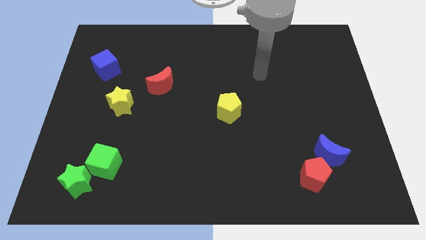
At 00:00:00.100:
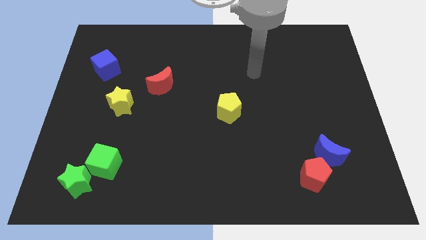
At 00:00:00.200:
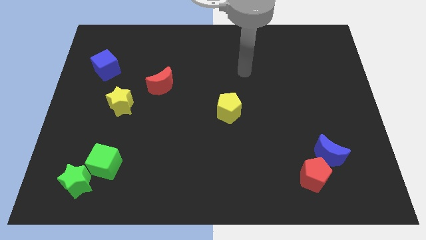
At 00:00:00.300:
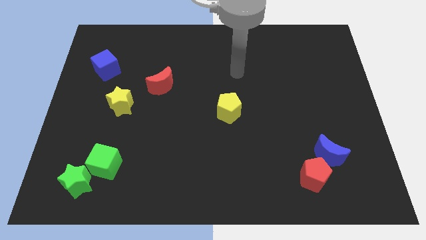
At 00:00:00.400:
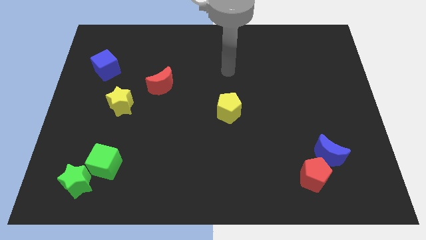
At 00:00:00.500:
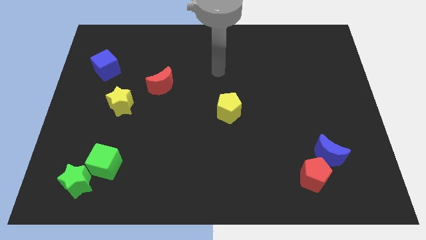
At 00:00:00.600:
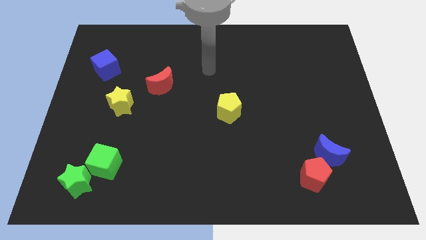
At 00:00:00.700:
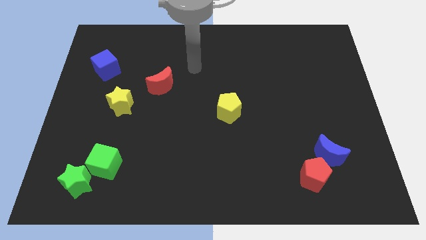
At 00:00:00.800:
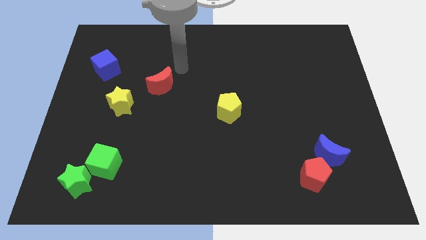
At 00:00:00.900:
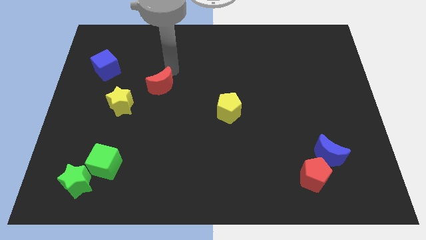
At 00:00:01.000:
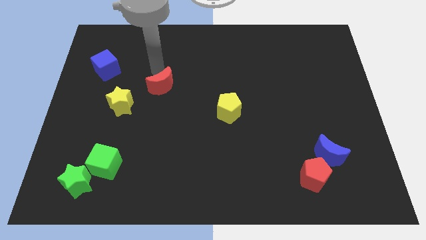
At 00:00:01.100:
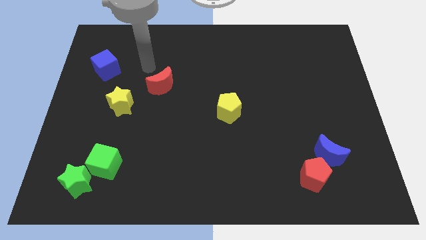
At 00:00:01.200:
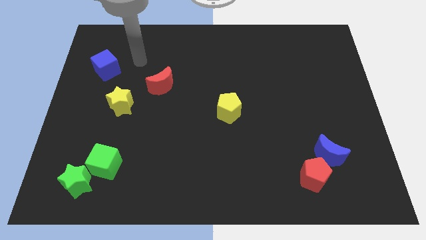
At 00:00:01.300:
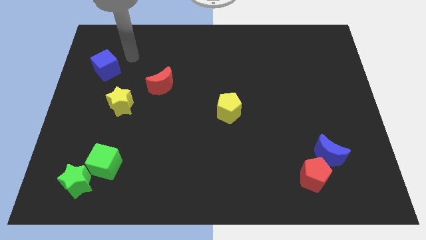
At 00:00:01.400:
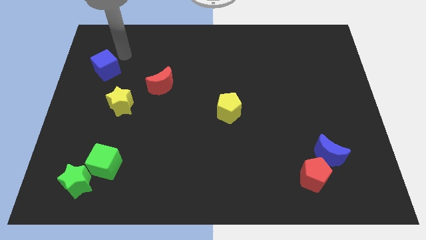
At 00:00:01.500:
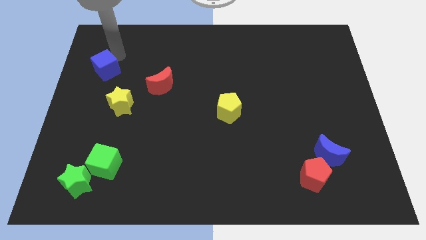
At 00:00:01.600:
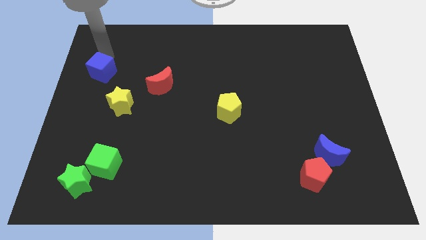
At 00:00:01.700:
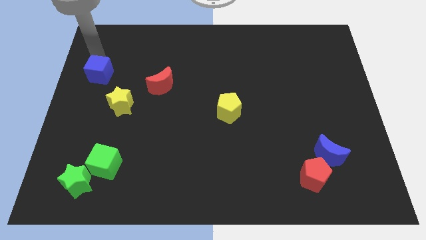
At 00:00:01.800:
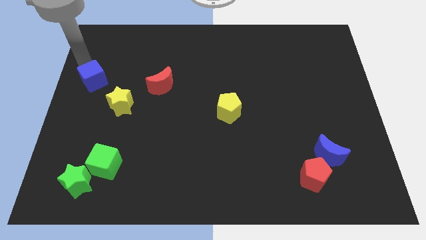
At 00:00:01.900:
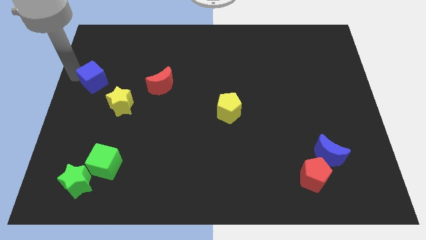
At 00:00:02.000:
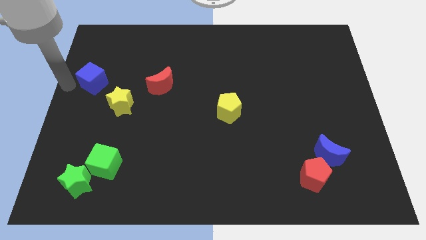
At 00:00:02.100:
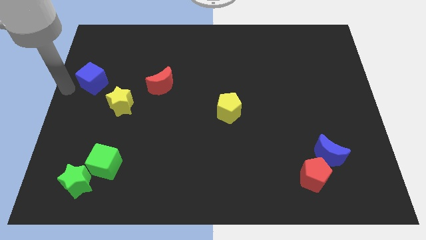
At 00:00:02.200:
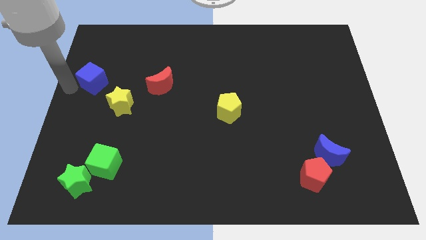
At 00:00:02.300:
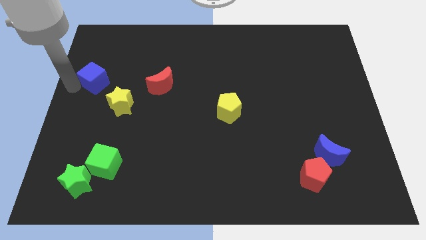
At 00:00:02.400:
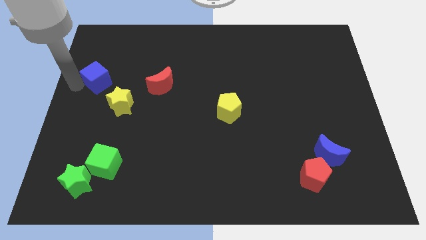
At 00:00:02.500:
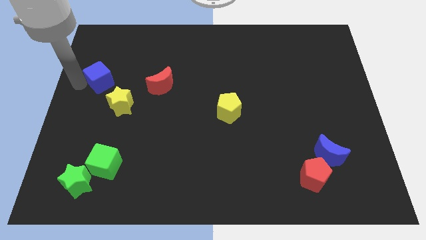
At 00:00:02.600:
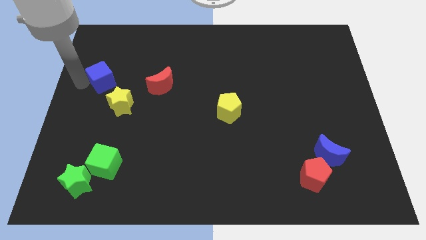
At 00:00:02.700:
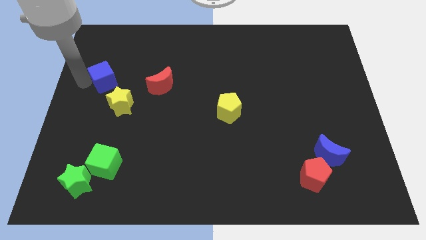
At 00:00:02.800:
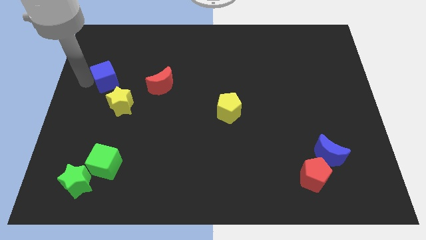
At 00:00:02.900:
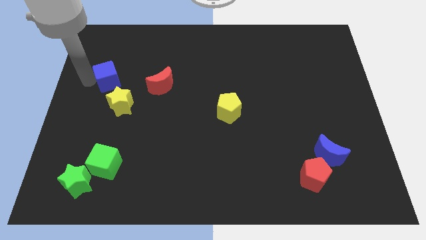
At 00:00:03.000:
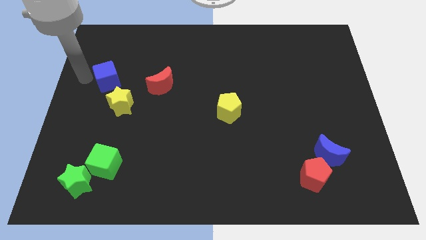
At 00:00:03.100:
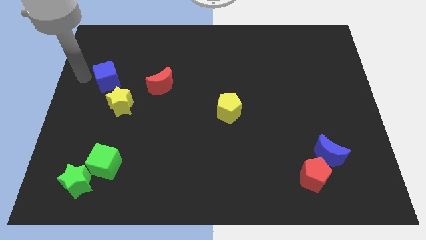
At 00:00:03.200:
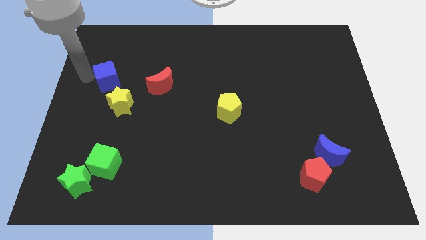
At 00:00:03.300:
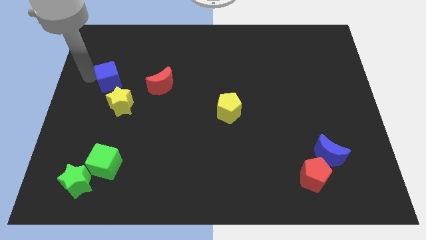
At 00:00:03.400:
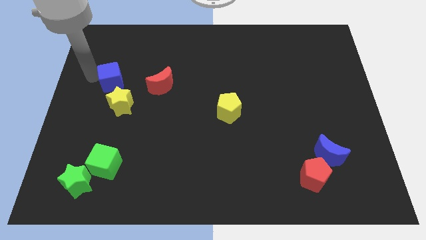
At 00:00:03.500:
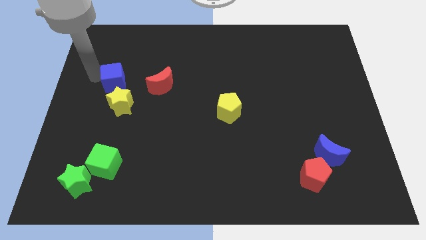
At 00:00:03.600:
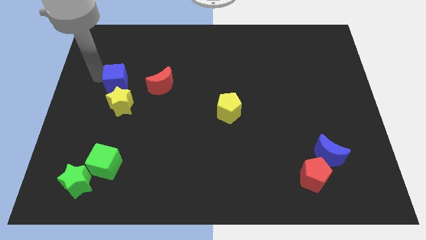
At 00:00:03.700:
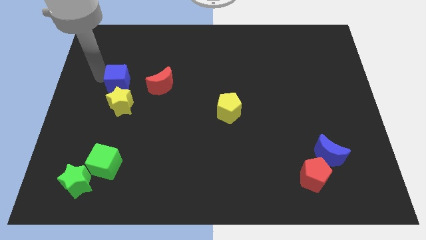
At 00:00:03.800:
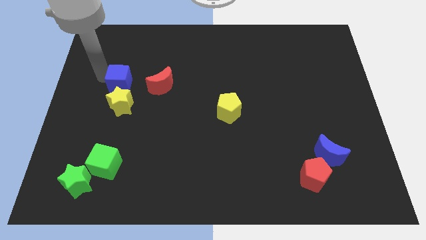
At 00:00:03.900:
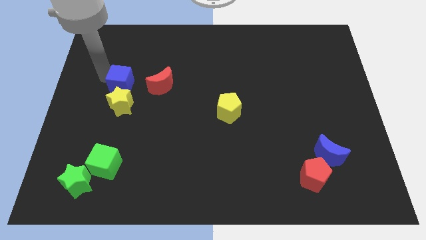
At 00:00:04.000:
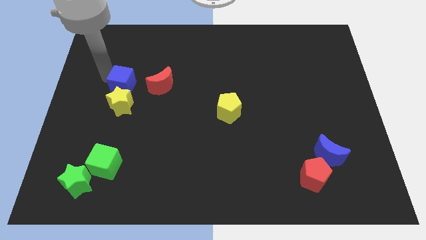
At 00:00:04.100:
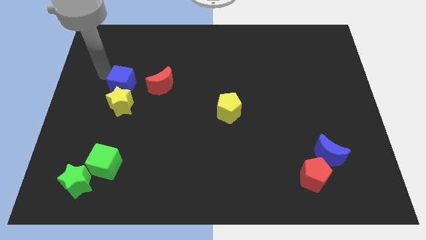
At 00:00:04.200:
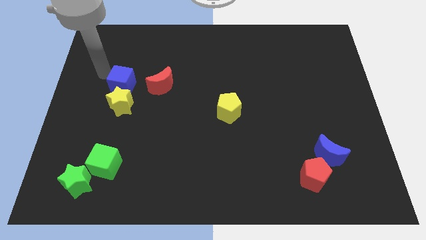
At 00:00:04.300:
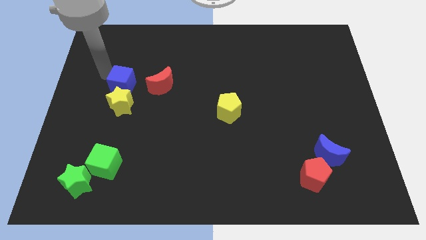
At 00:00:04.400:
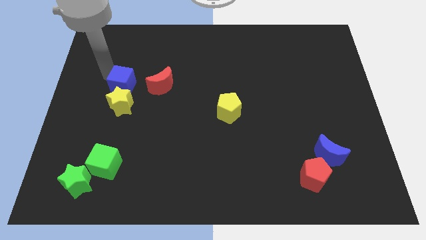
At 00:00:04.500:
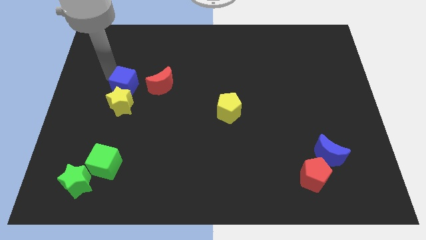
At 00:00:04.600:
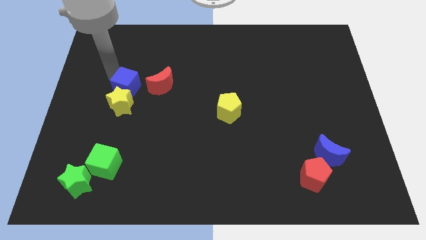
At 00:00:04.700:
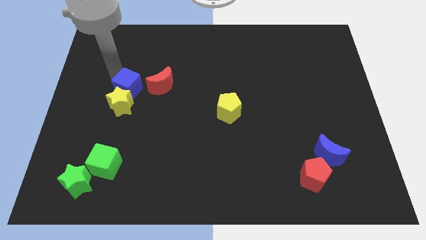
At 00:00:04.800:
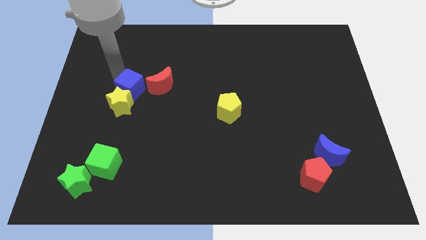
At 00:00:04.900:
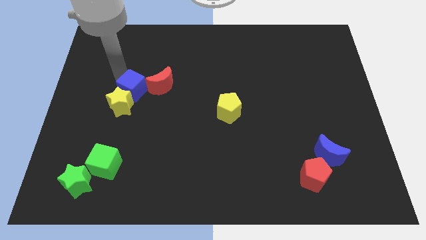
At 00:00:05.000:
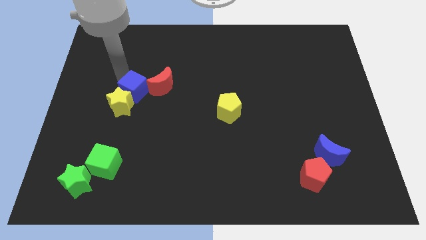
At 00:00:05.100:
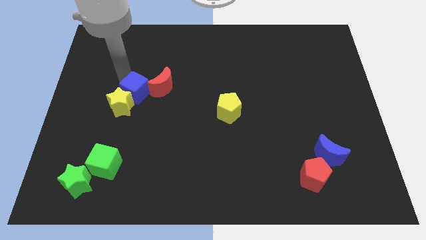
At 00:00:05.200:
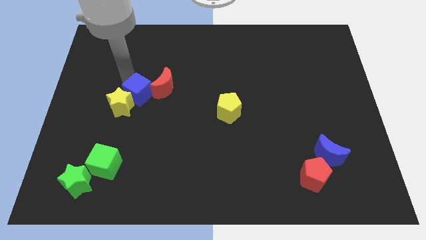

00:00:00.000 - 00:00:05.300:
put the blue cube just right of the yellow star

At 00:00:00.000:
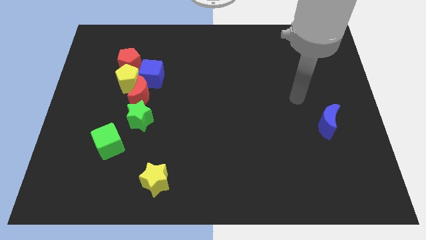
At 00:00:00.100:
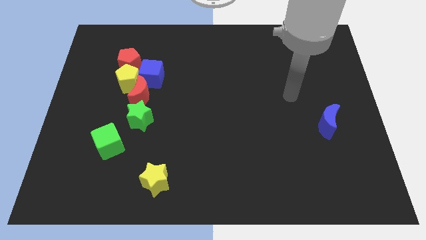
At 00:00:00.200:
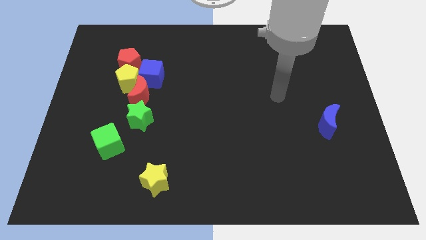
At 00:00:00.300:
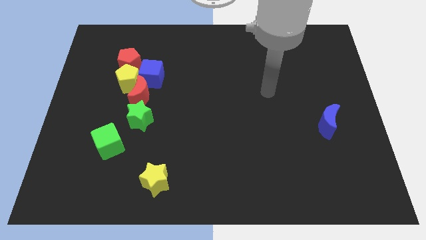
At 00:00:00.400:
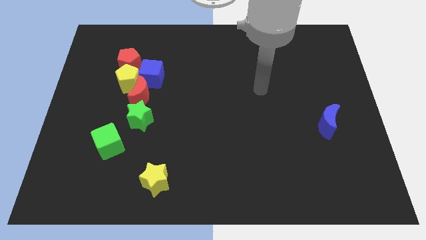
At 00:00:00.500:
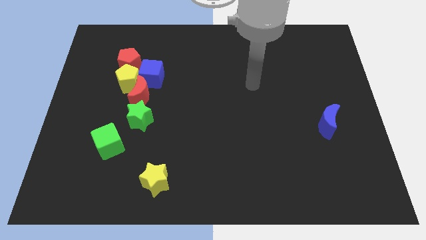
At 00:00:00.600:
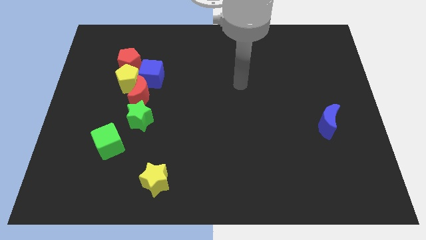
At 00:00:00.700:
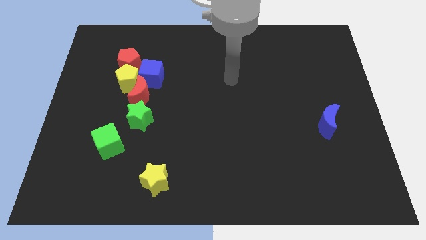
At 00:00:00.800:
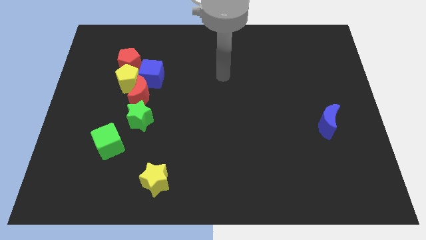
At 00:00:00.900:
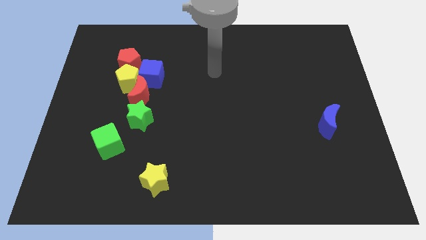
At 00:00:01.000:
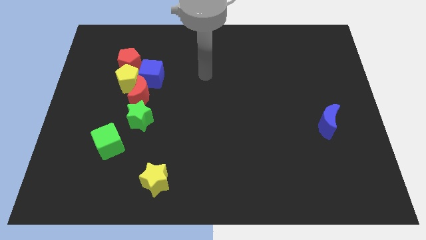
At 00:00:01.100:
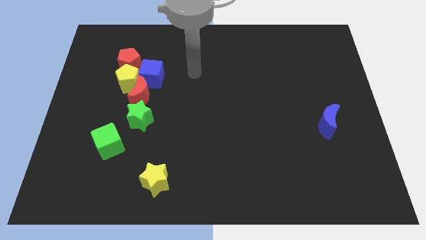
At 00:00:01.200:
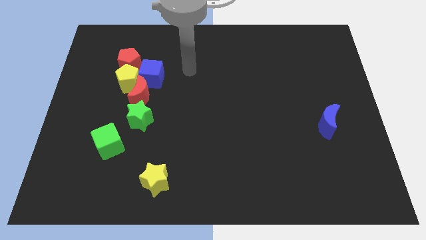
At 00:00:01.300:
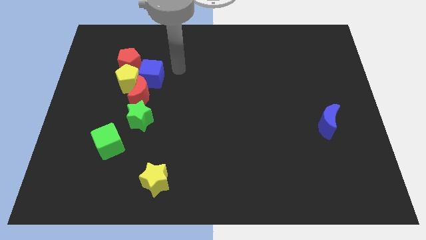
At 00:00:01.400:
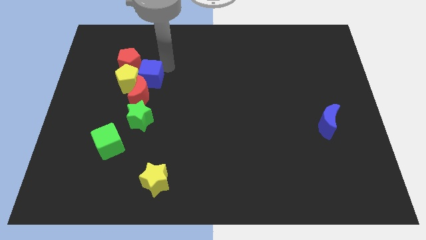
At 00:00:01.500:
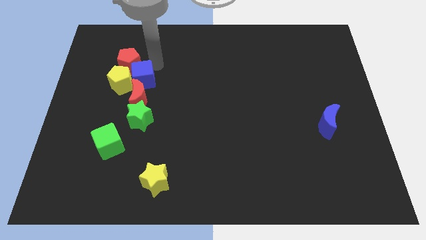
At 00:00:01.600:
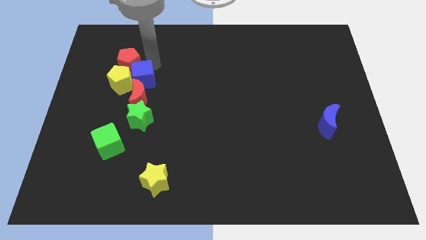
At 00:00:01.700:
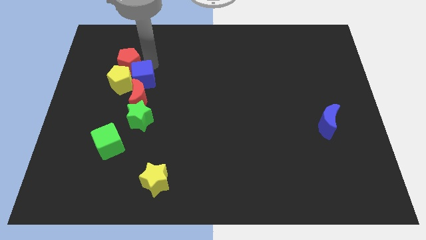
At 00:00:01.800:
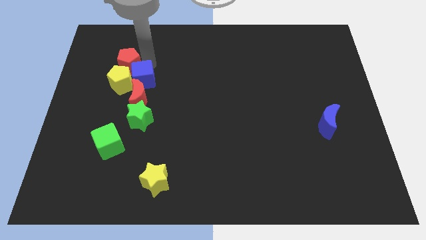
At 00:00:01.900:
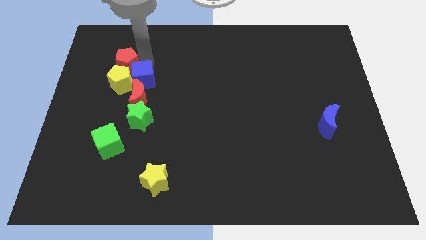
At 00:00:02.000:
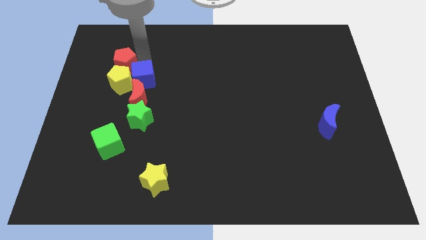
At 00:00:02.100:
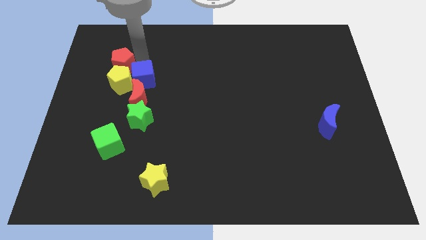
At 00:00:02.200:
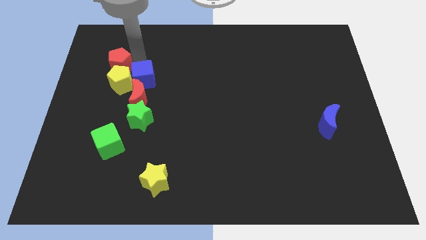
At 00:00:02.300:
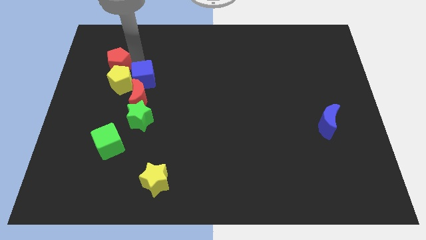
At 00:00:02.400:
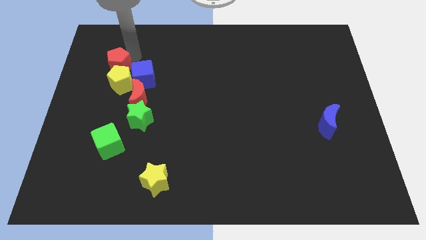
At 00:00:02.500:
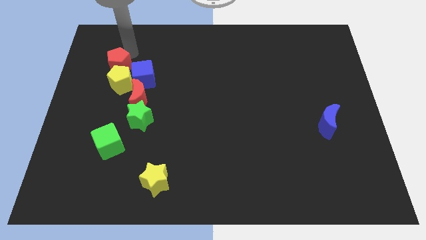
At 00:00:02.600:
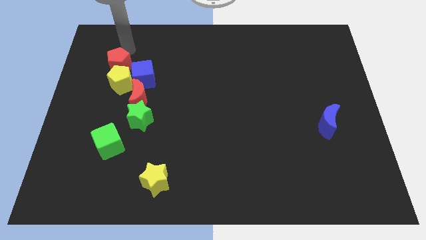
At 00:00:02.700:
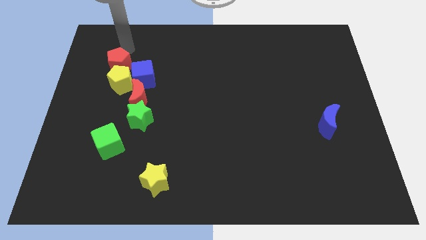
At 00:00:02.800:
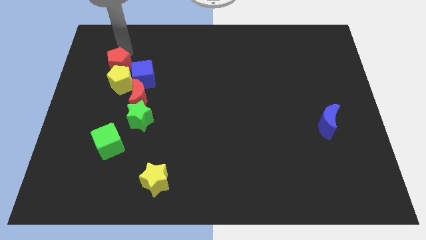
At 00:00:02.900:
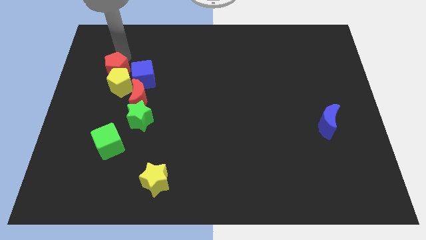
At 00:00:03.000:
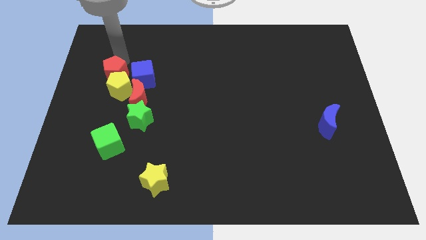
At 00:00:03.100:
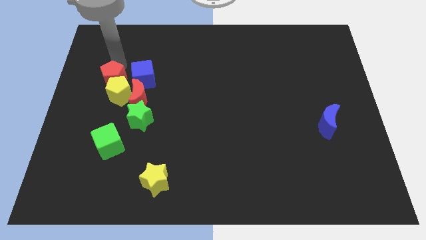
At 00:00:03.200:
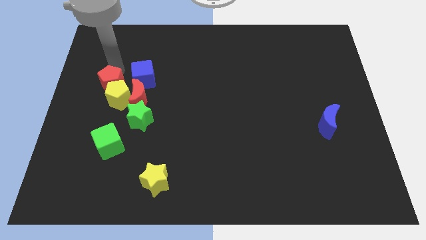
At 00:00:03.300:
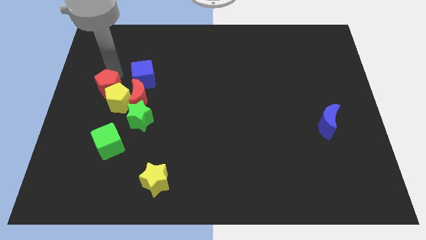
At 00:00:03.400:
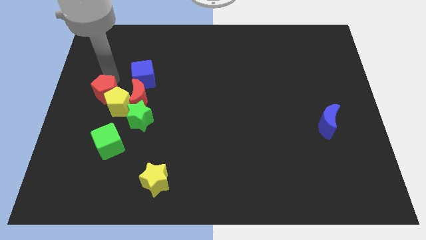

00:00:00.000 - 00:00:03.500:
move the red pentagon to the top side of the green cube
